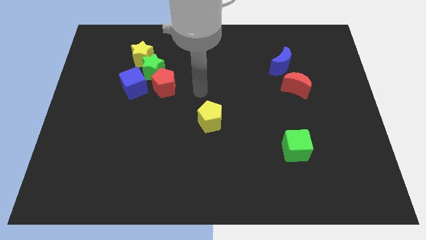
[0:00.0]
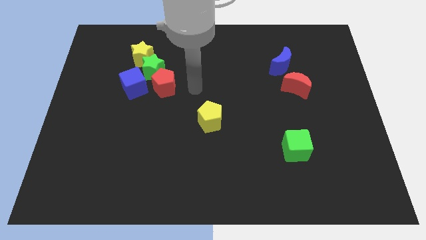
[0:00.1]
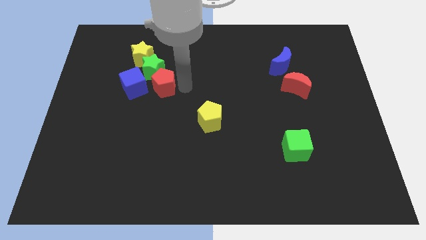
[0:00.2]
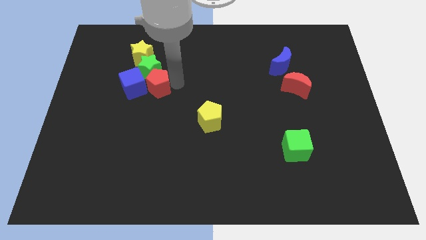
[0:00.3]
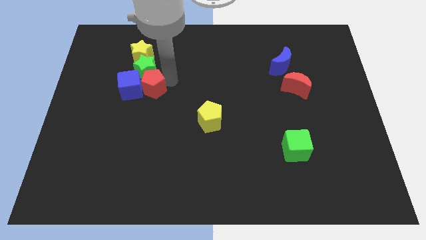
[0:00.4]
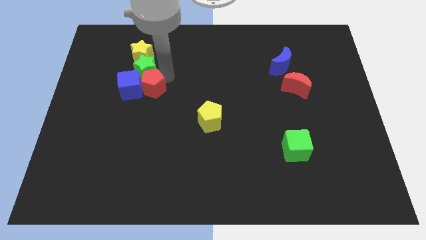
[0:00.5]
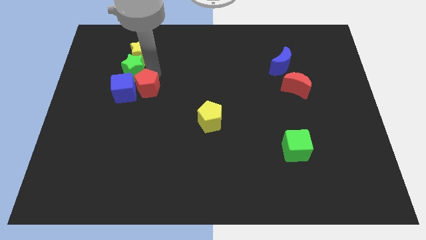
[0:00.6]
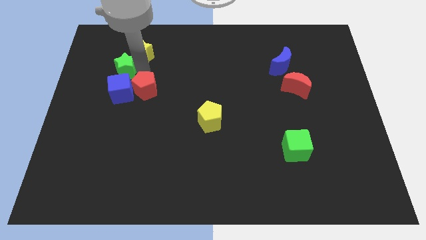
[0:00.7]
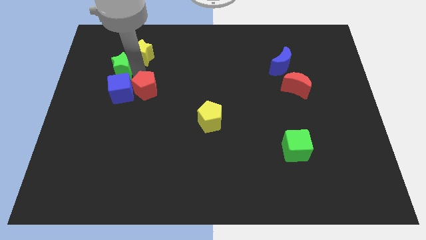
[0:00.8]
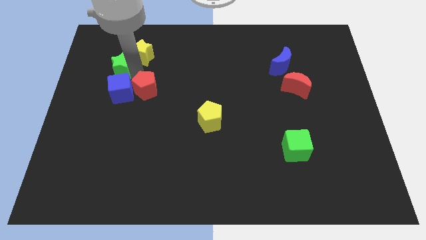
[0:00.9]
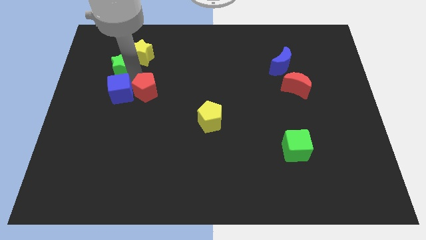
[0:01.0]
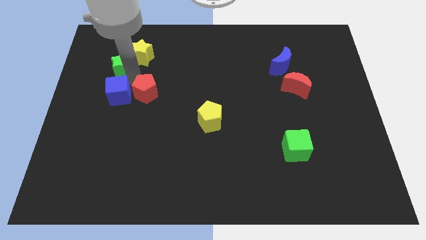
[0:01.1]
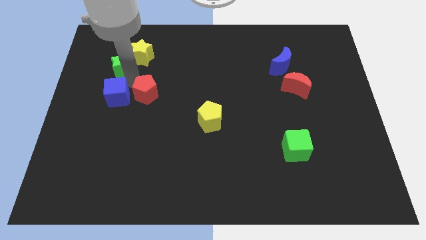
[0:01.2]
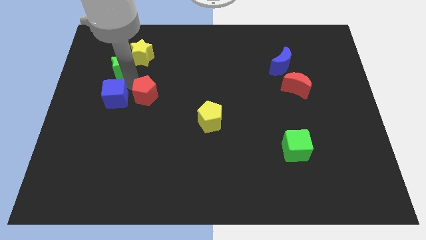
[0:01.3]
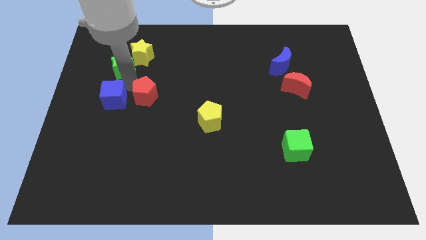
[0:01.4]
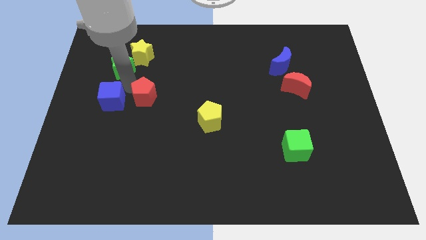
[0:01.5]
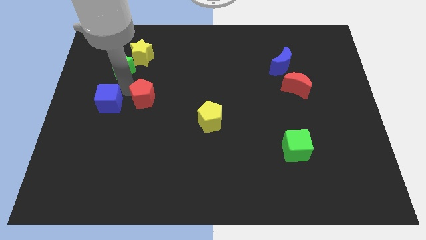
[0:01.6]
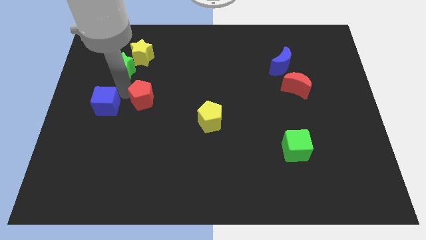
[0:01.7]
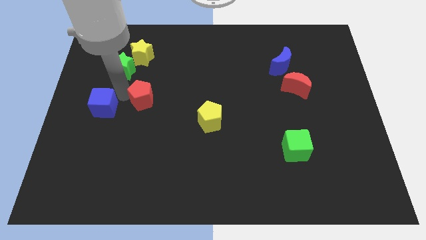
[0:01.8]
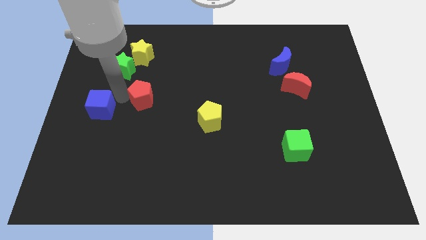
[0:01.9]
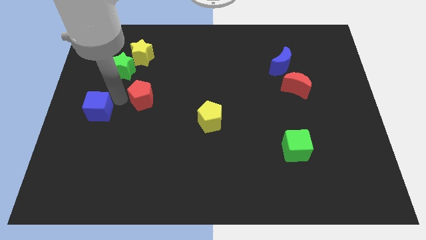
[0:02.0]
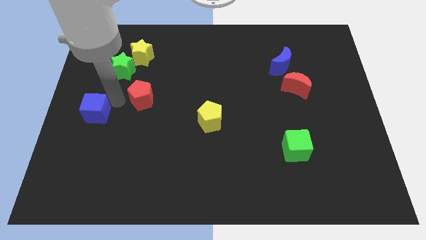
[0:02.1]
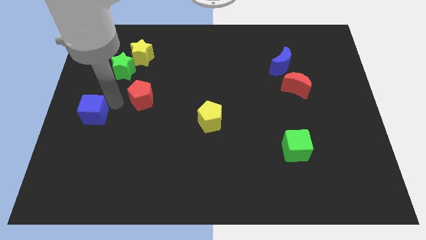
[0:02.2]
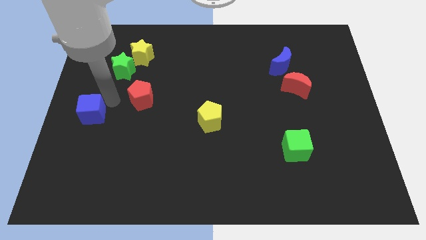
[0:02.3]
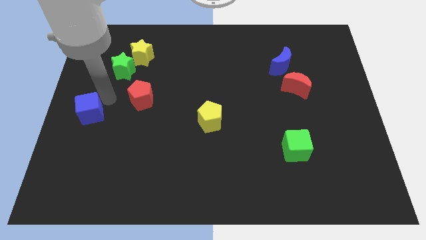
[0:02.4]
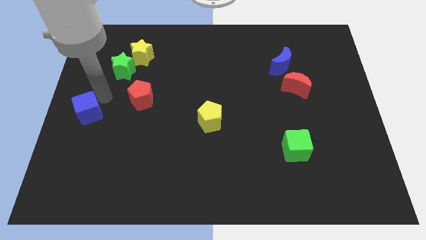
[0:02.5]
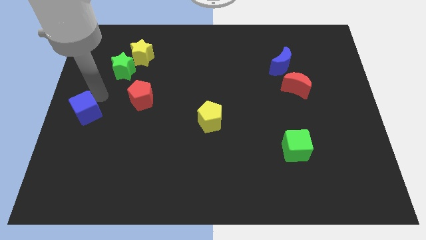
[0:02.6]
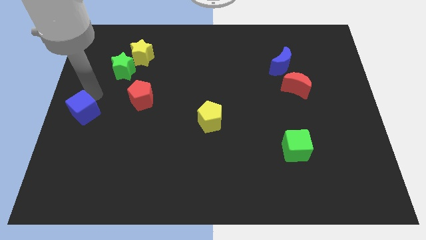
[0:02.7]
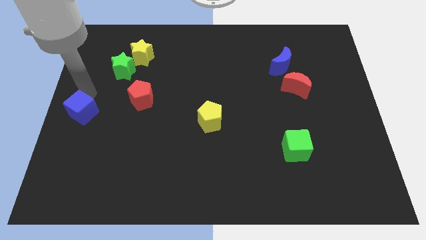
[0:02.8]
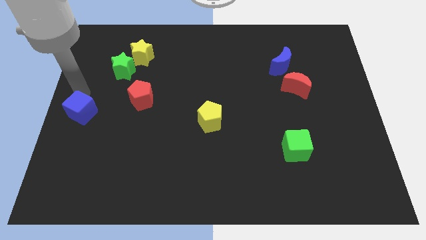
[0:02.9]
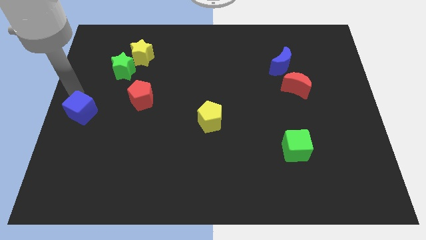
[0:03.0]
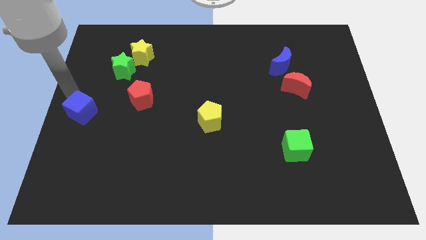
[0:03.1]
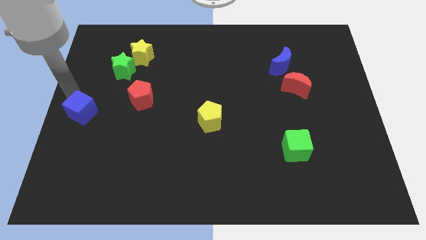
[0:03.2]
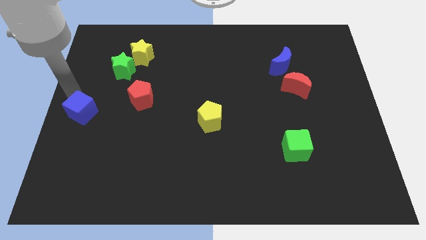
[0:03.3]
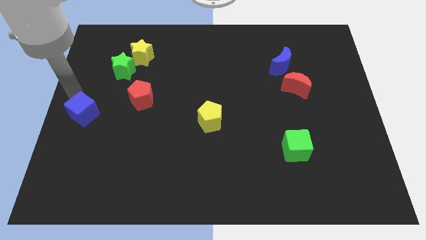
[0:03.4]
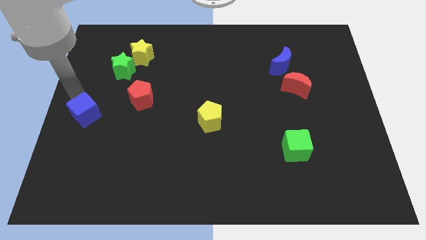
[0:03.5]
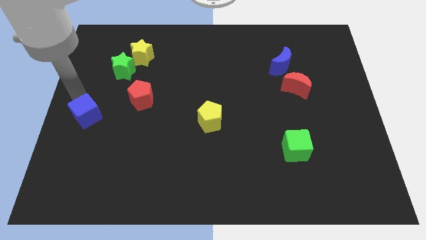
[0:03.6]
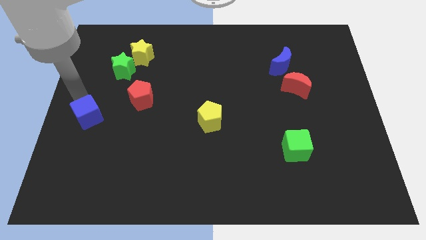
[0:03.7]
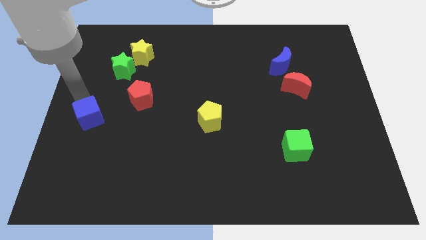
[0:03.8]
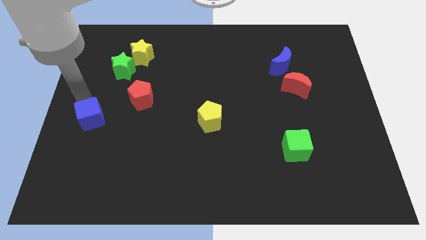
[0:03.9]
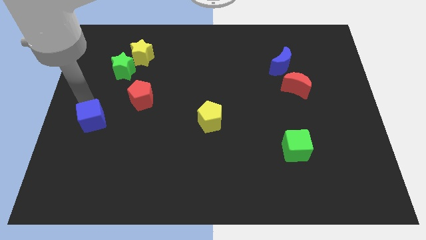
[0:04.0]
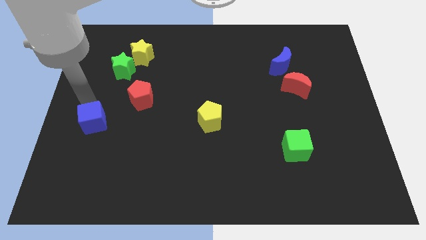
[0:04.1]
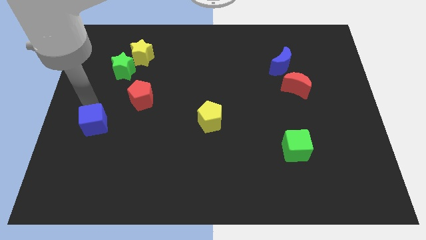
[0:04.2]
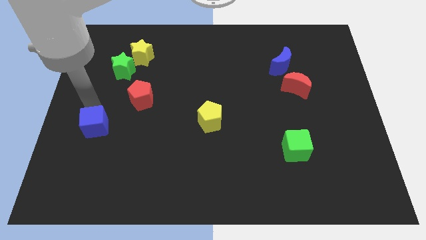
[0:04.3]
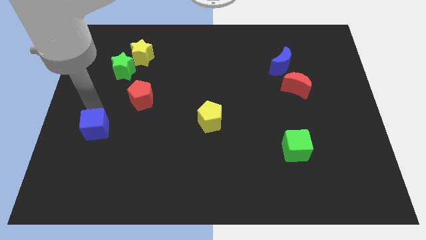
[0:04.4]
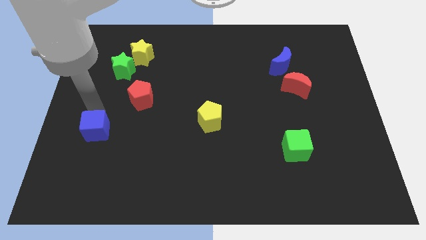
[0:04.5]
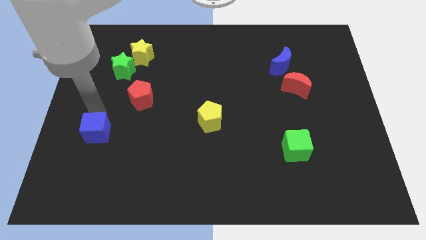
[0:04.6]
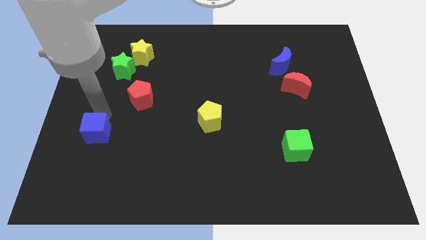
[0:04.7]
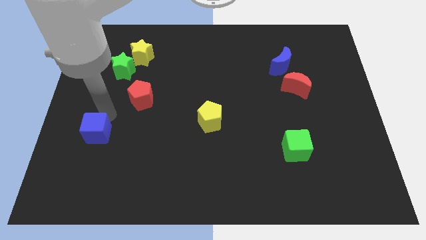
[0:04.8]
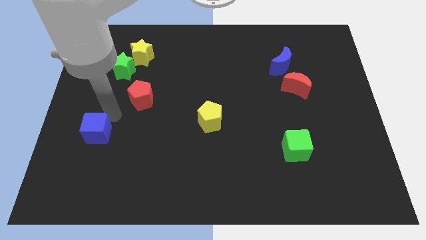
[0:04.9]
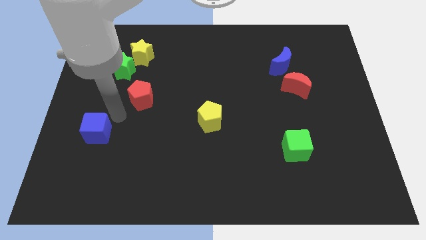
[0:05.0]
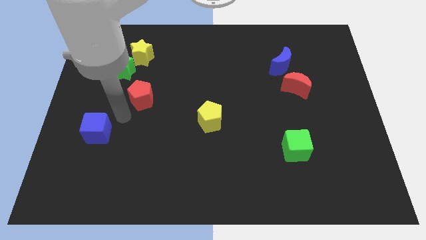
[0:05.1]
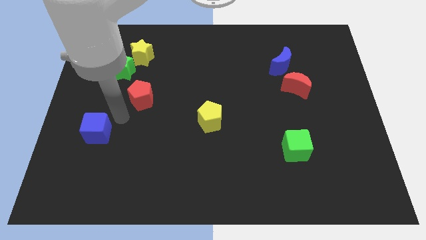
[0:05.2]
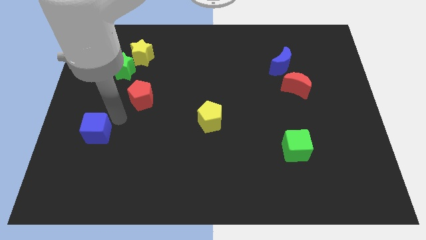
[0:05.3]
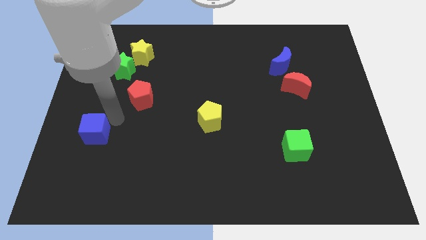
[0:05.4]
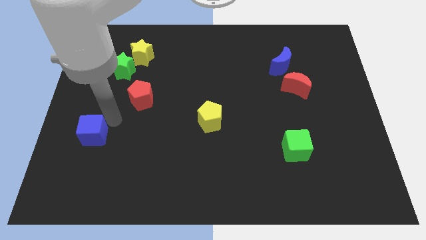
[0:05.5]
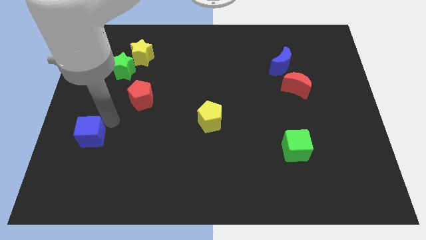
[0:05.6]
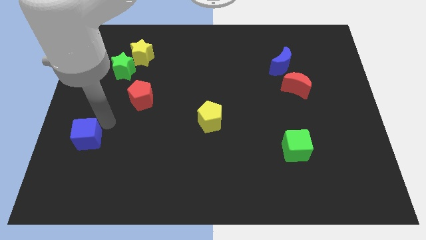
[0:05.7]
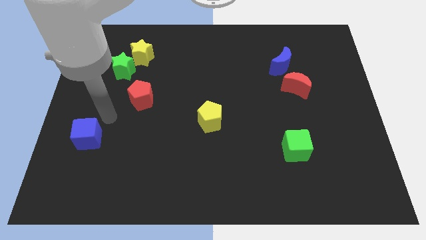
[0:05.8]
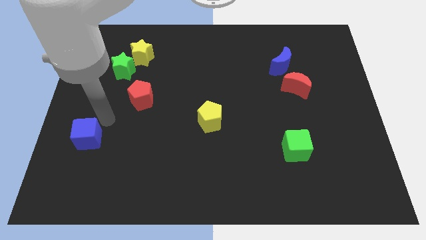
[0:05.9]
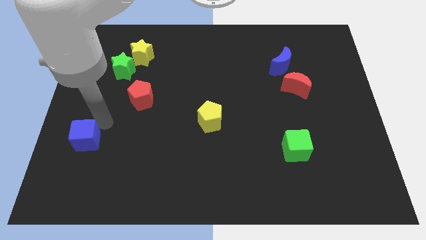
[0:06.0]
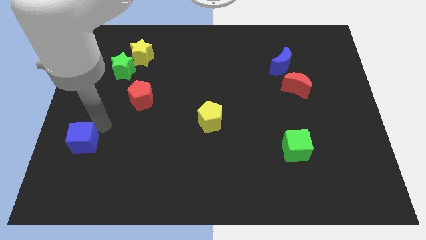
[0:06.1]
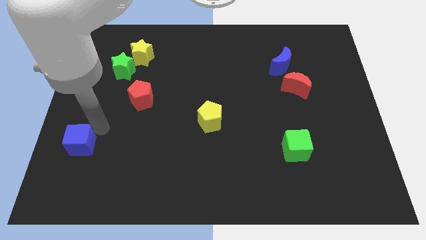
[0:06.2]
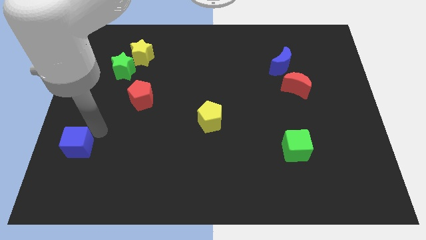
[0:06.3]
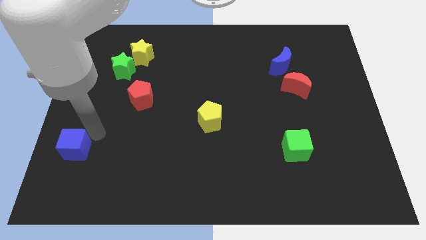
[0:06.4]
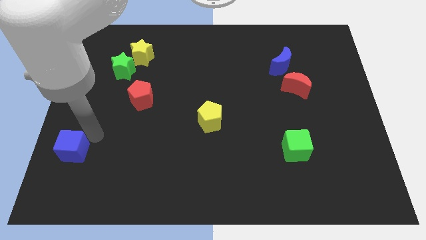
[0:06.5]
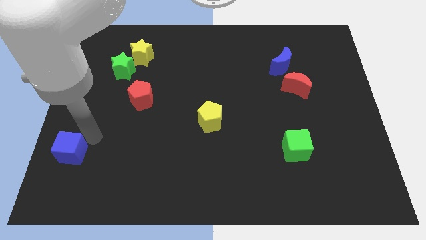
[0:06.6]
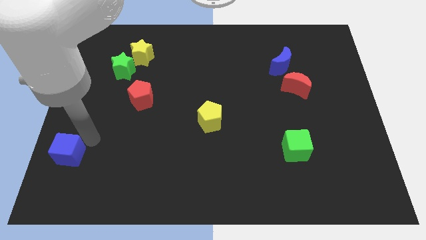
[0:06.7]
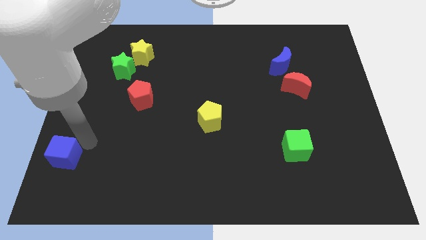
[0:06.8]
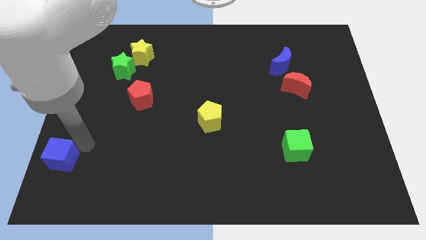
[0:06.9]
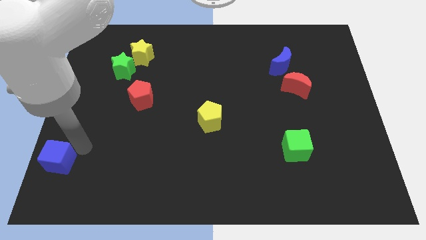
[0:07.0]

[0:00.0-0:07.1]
move the blue cube to the bottom left of the board

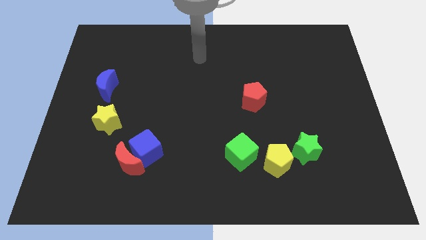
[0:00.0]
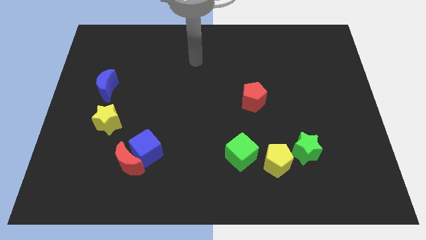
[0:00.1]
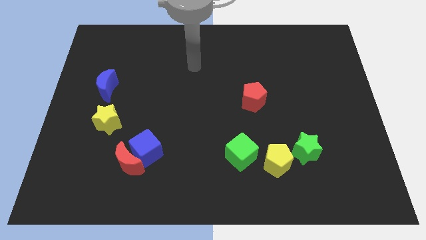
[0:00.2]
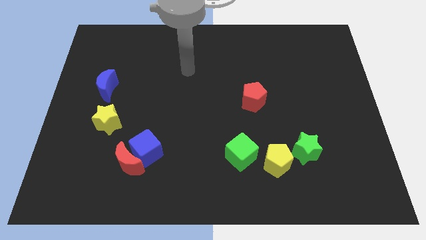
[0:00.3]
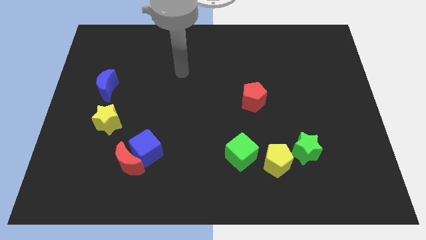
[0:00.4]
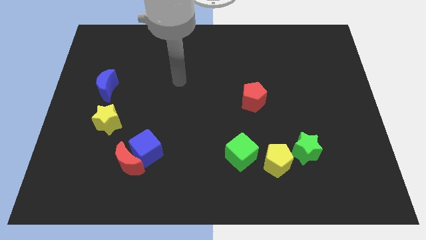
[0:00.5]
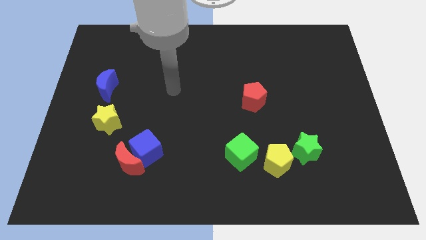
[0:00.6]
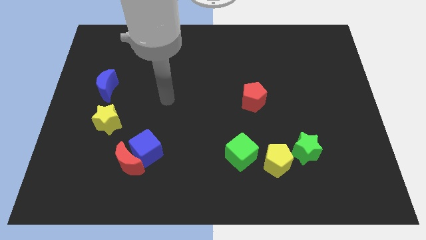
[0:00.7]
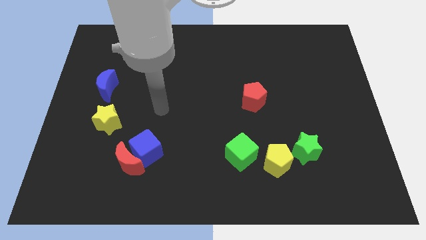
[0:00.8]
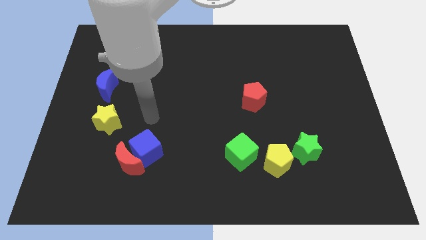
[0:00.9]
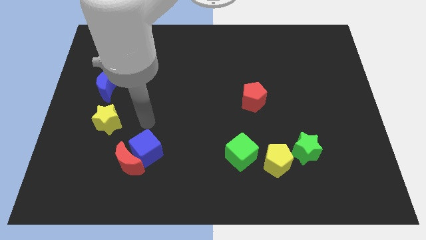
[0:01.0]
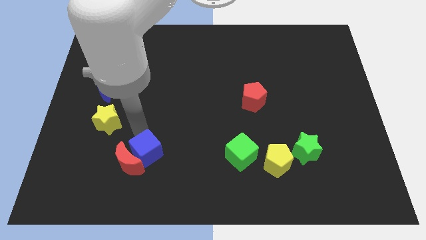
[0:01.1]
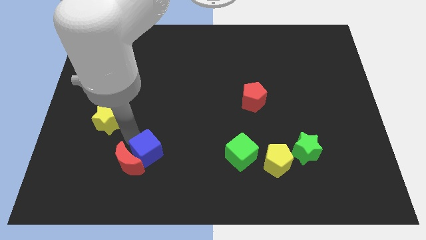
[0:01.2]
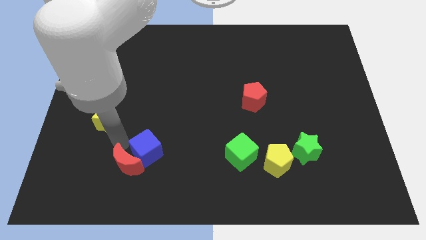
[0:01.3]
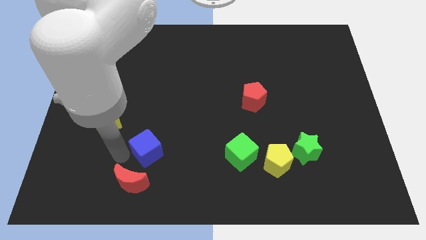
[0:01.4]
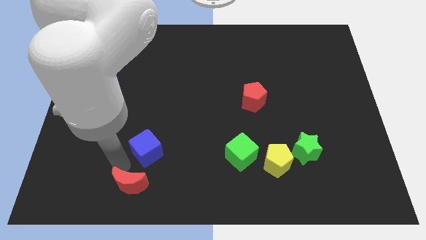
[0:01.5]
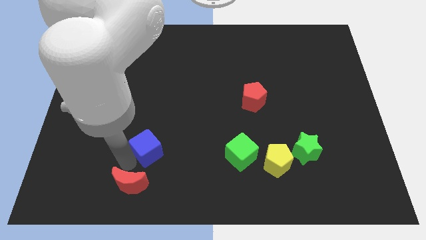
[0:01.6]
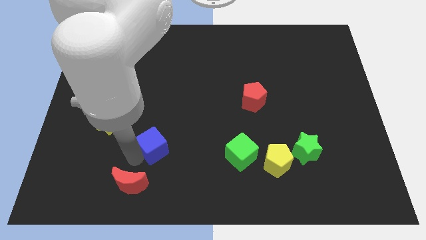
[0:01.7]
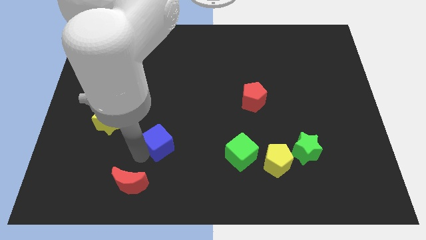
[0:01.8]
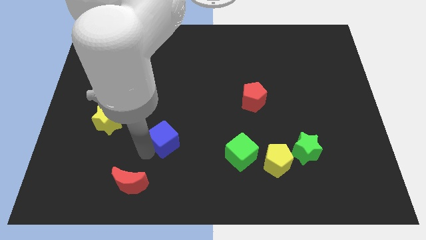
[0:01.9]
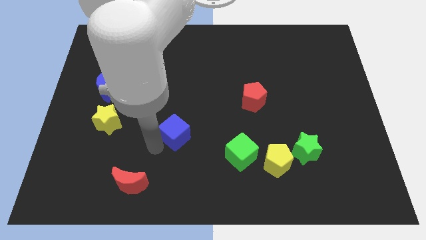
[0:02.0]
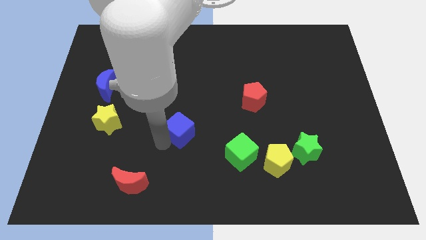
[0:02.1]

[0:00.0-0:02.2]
slide the blue cube to the center
